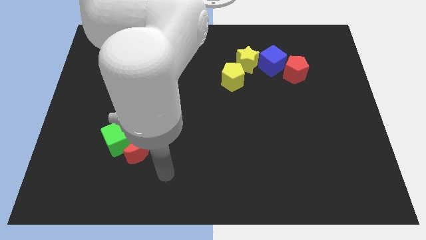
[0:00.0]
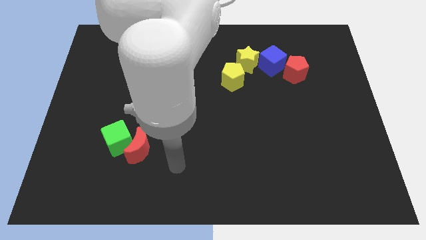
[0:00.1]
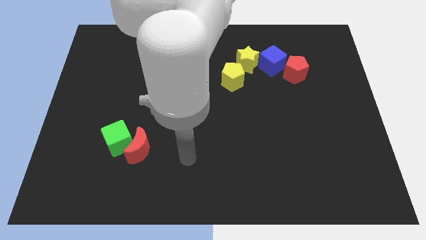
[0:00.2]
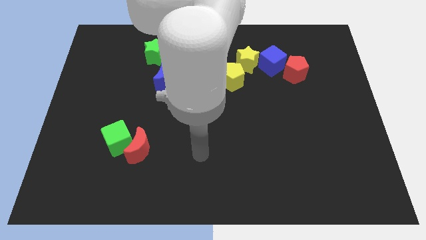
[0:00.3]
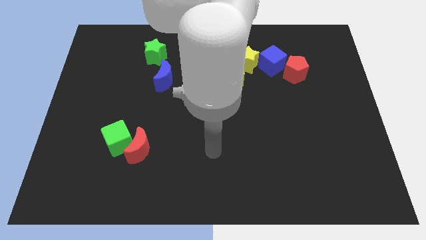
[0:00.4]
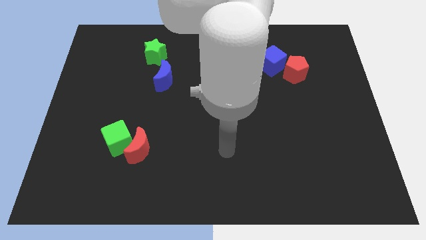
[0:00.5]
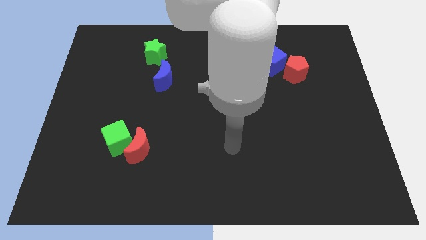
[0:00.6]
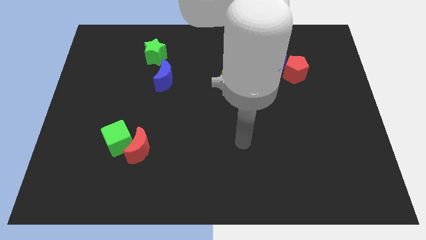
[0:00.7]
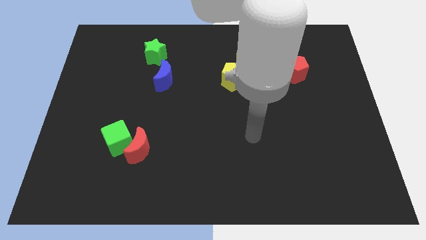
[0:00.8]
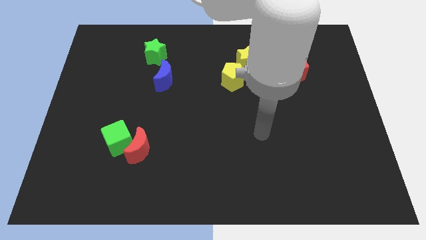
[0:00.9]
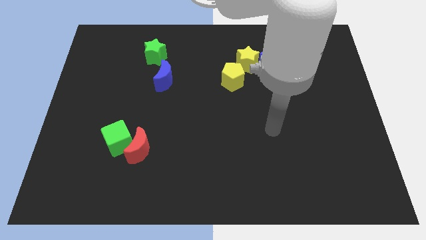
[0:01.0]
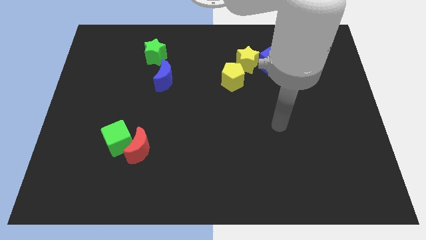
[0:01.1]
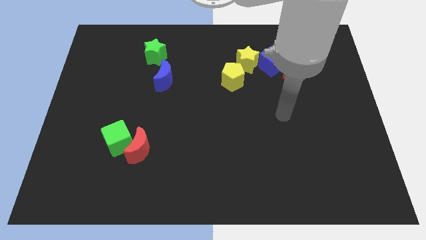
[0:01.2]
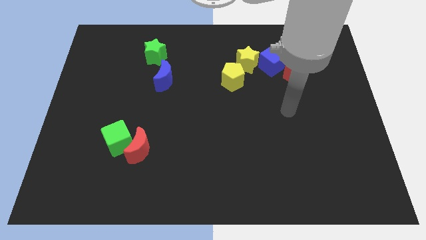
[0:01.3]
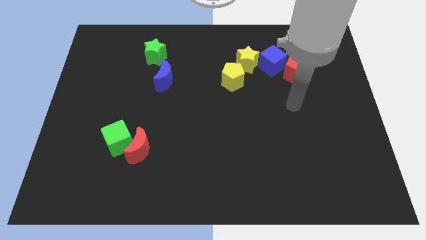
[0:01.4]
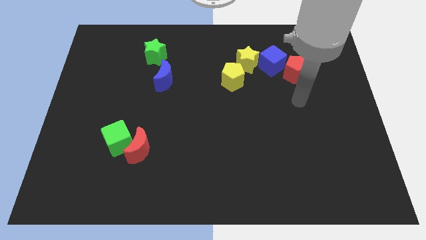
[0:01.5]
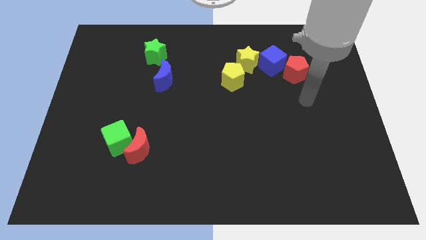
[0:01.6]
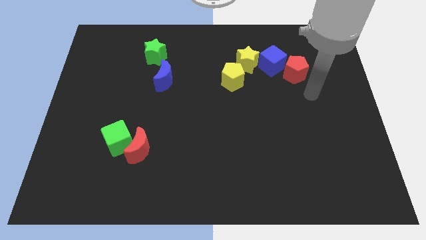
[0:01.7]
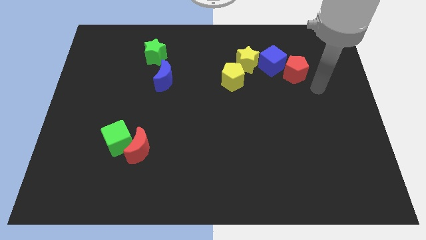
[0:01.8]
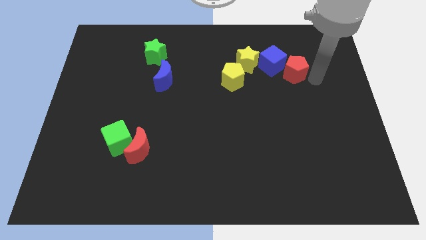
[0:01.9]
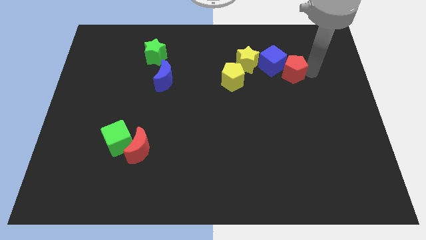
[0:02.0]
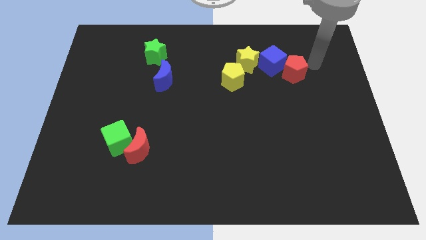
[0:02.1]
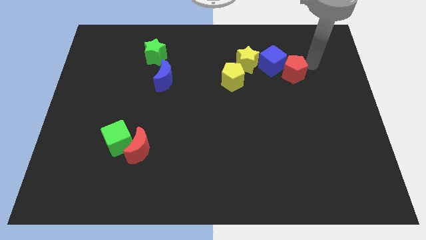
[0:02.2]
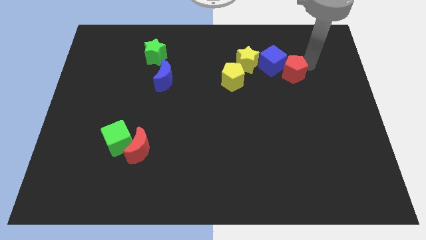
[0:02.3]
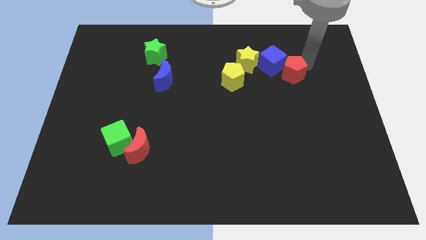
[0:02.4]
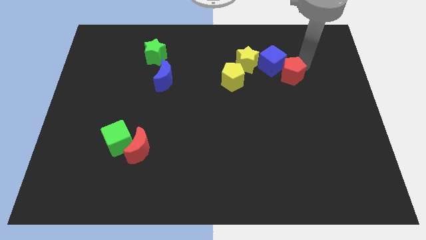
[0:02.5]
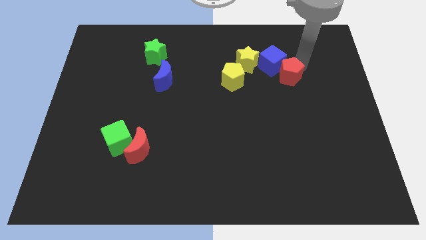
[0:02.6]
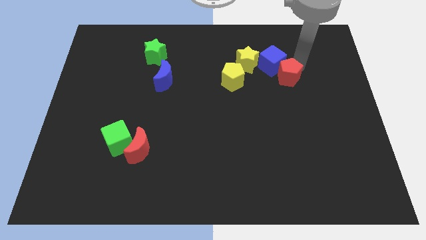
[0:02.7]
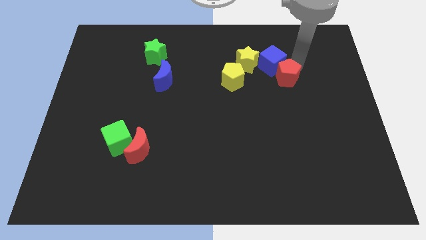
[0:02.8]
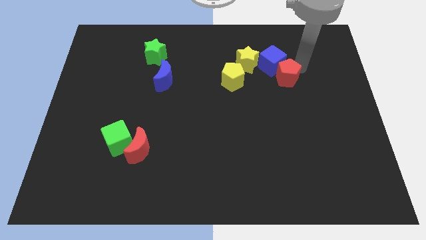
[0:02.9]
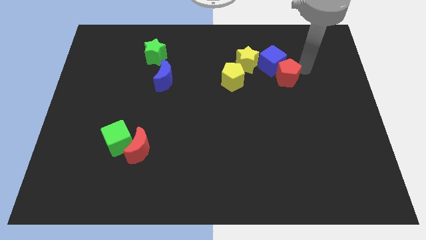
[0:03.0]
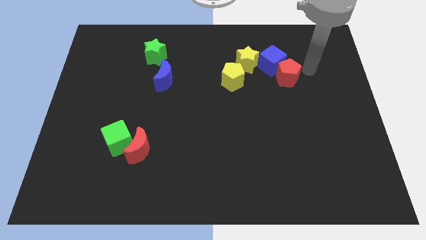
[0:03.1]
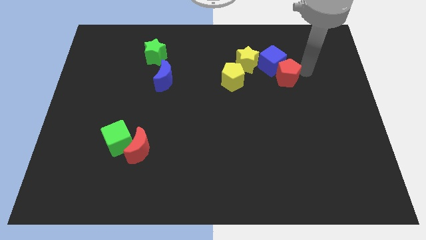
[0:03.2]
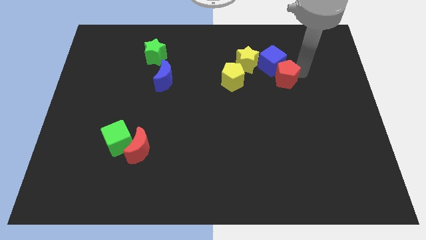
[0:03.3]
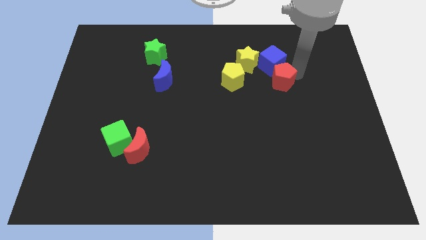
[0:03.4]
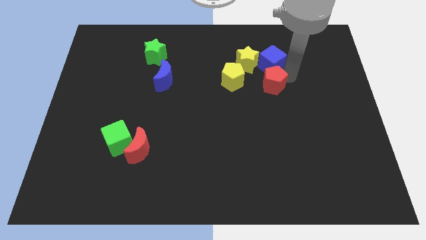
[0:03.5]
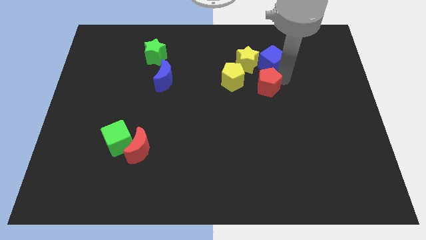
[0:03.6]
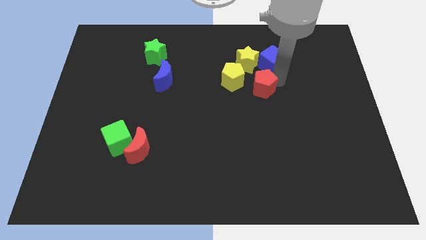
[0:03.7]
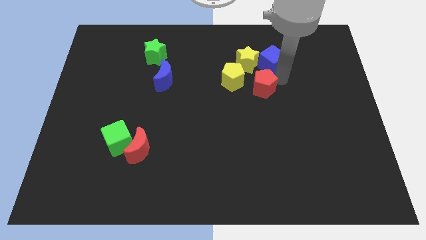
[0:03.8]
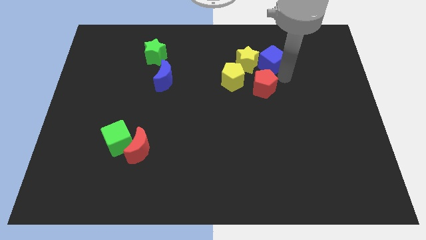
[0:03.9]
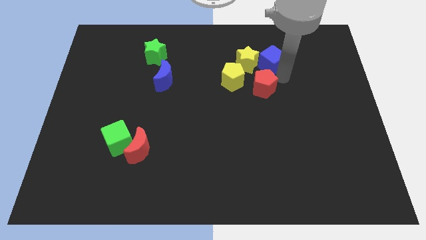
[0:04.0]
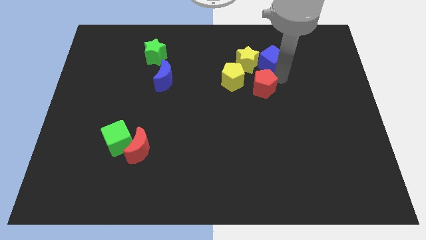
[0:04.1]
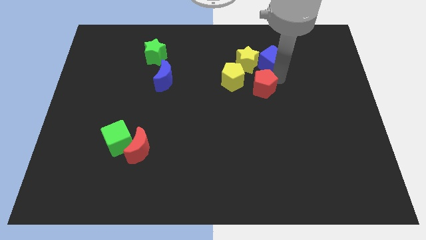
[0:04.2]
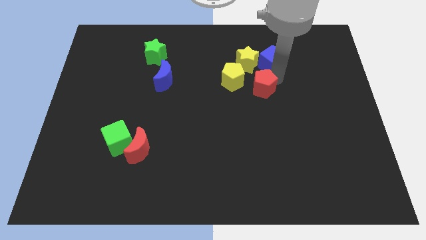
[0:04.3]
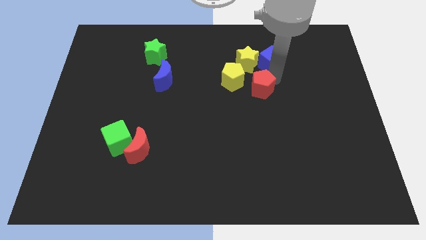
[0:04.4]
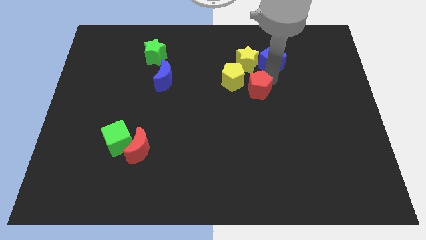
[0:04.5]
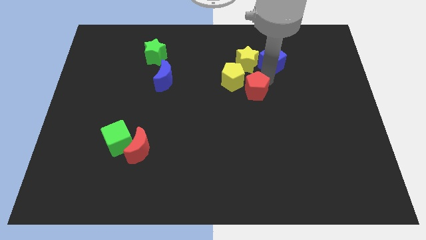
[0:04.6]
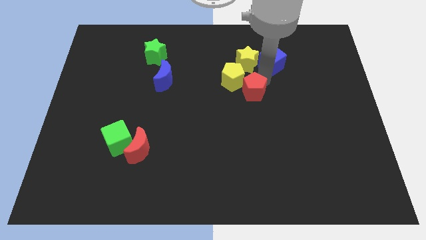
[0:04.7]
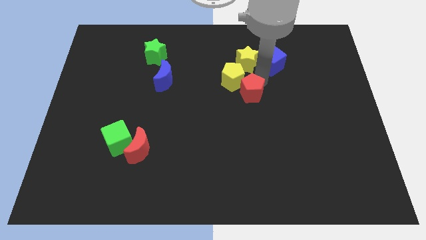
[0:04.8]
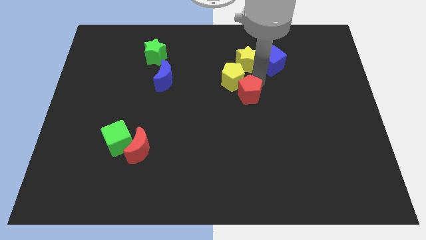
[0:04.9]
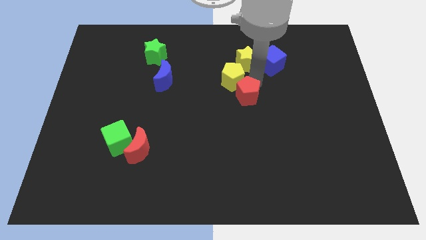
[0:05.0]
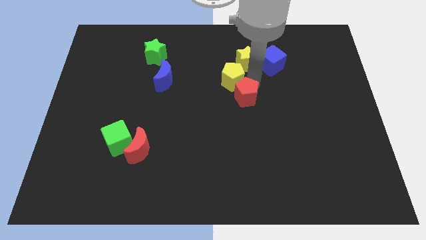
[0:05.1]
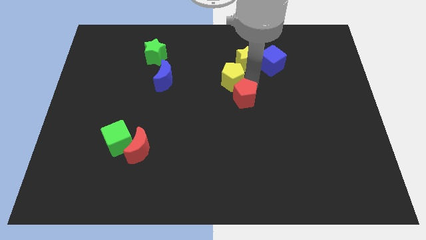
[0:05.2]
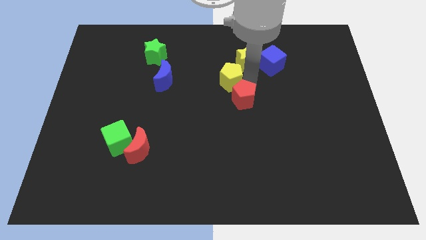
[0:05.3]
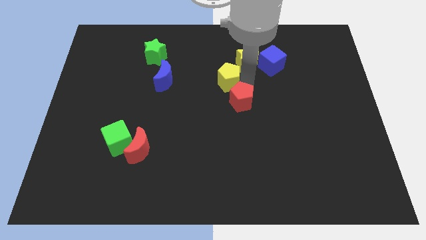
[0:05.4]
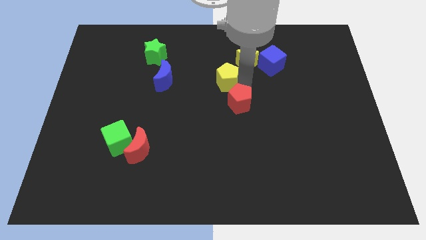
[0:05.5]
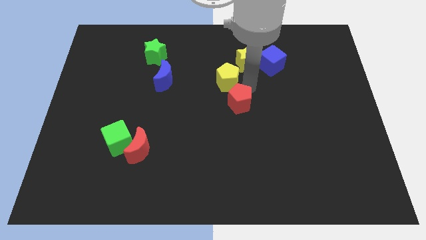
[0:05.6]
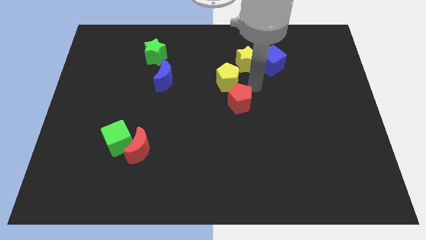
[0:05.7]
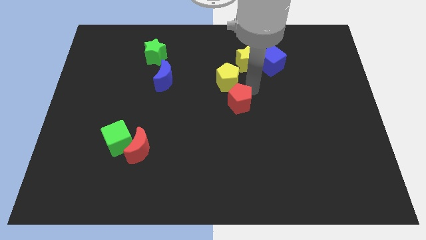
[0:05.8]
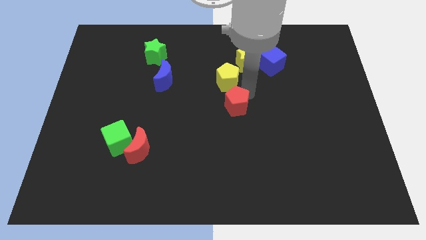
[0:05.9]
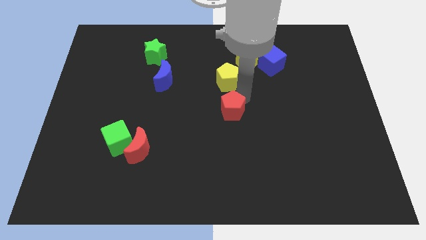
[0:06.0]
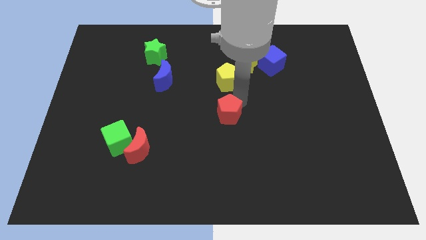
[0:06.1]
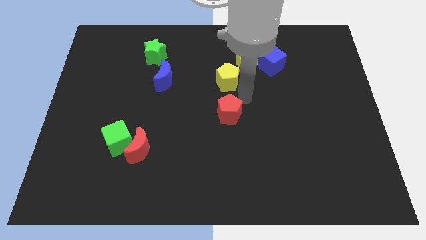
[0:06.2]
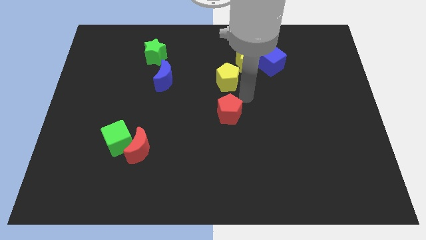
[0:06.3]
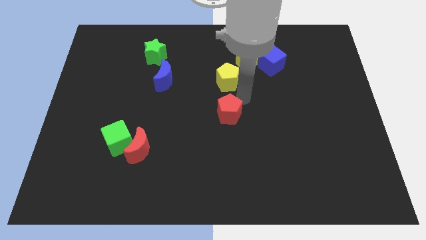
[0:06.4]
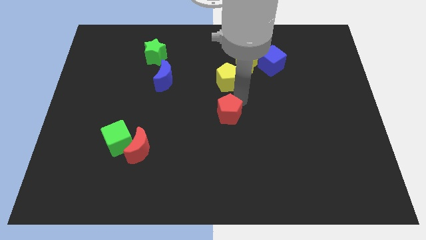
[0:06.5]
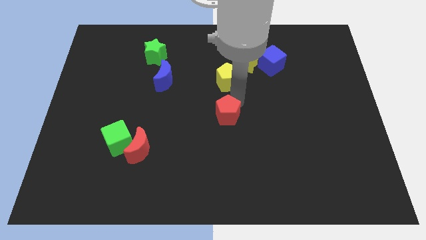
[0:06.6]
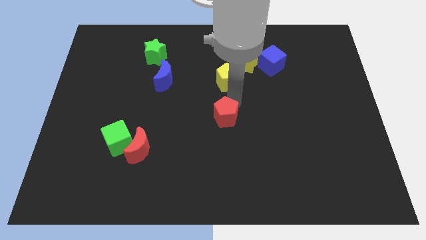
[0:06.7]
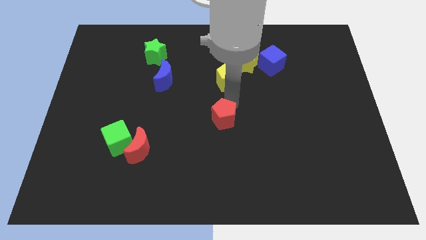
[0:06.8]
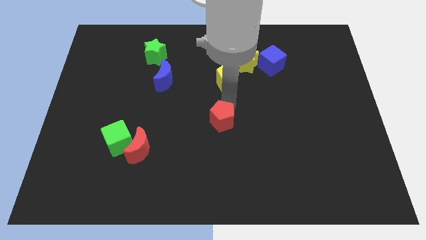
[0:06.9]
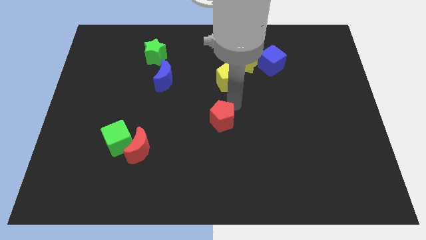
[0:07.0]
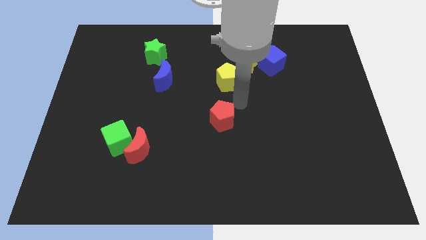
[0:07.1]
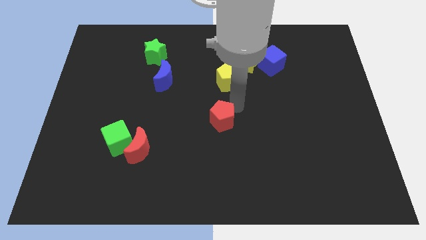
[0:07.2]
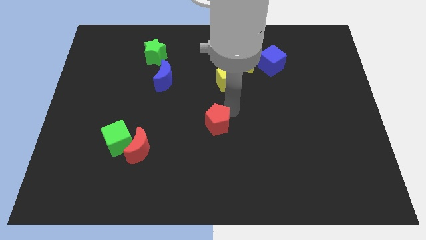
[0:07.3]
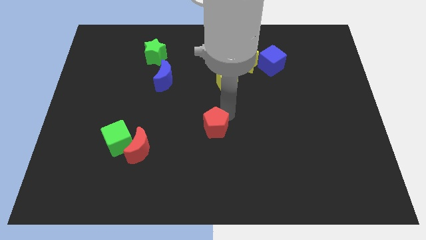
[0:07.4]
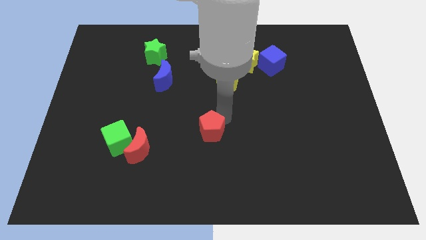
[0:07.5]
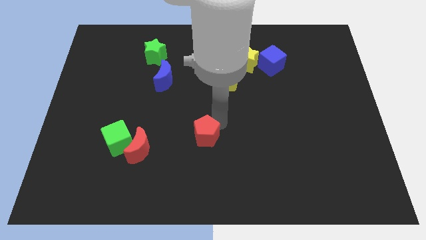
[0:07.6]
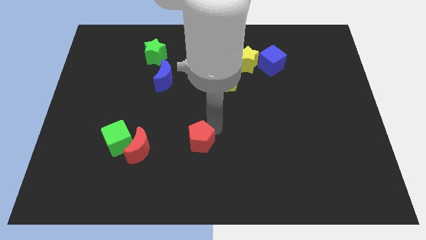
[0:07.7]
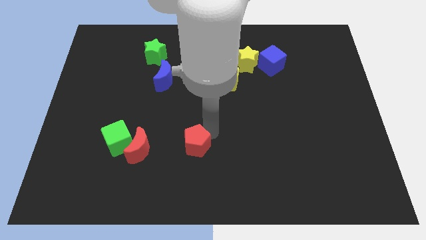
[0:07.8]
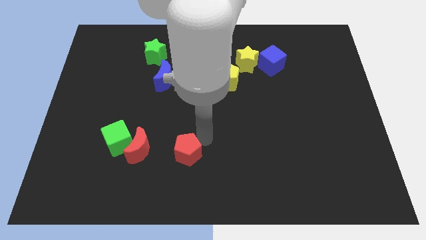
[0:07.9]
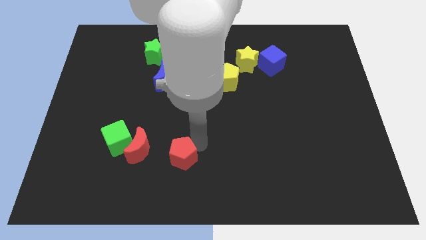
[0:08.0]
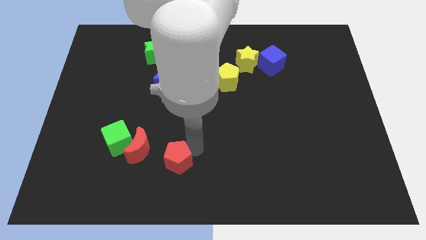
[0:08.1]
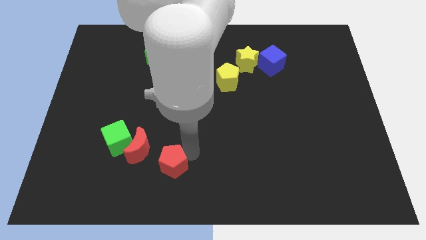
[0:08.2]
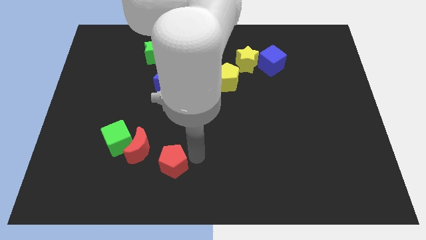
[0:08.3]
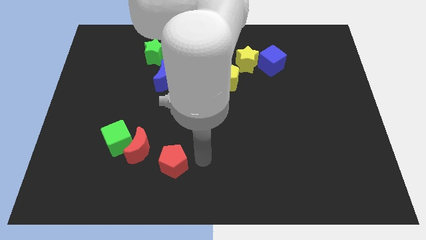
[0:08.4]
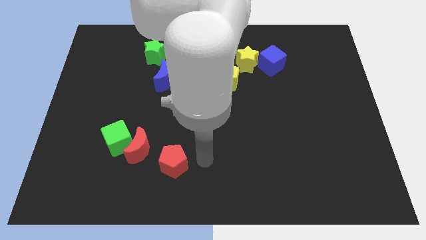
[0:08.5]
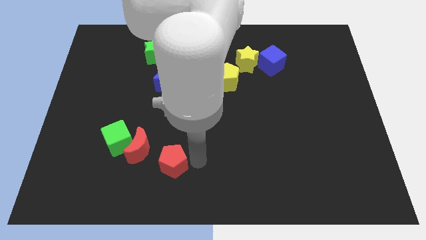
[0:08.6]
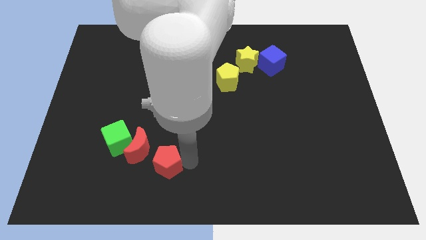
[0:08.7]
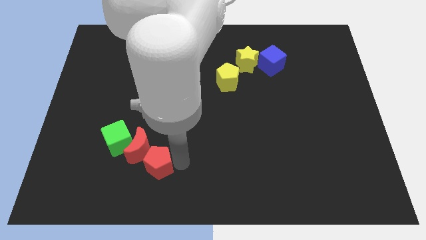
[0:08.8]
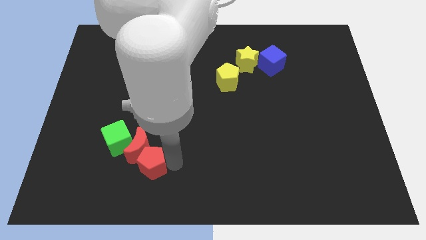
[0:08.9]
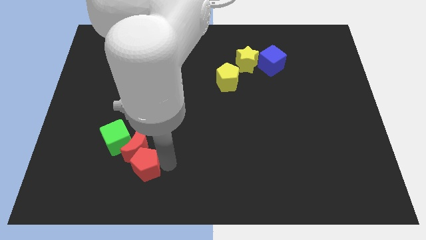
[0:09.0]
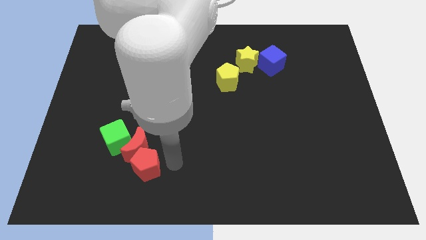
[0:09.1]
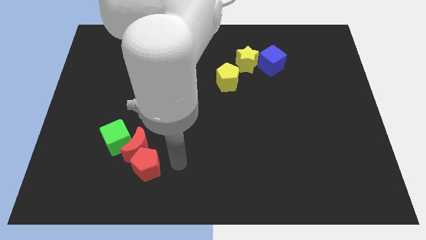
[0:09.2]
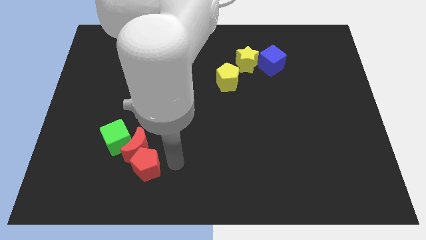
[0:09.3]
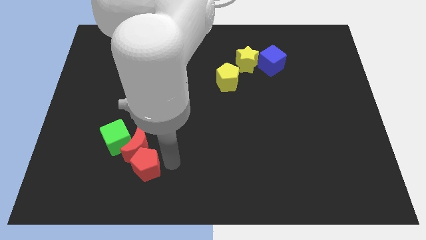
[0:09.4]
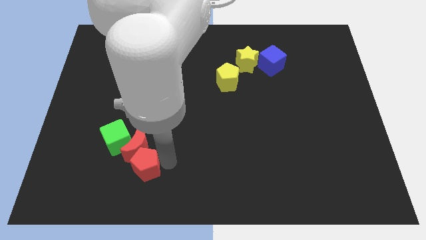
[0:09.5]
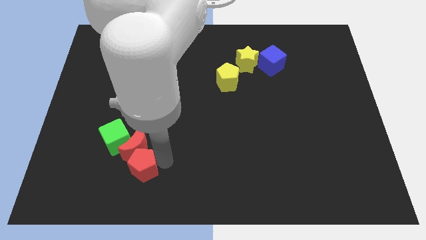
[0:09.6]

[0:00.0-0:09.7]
slide the red pentagon diagonally down and to the left of the red moon
